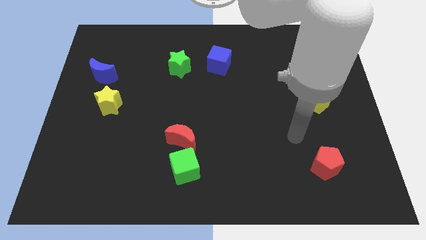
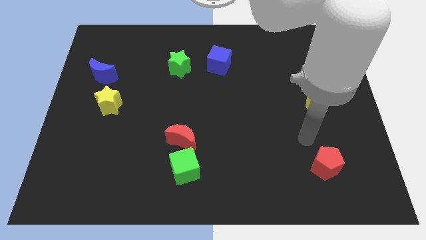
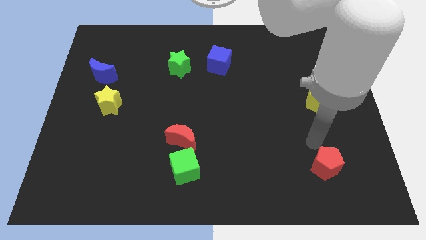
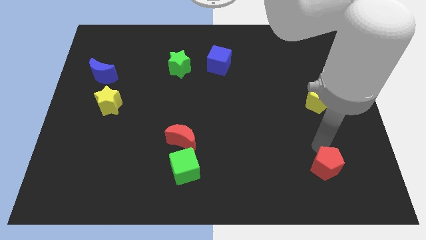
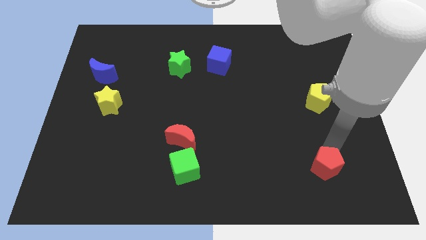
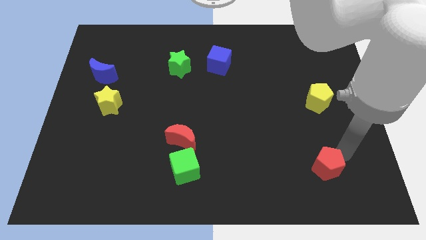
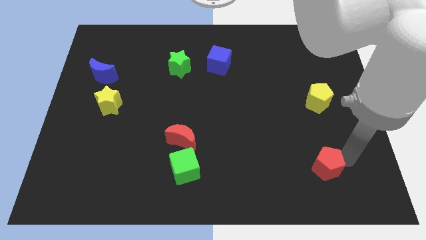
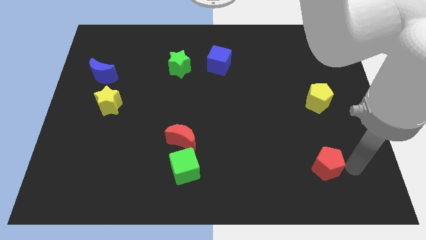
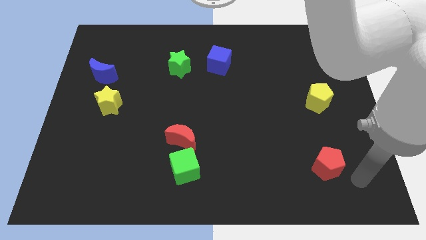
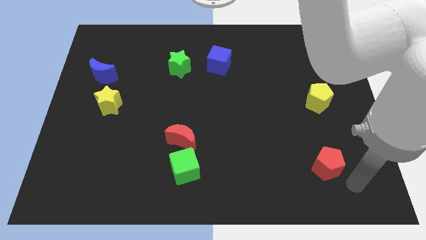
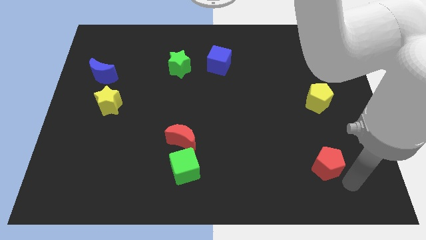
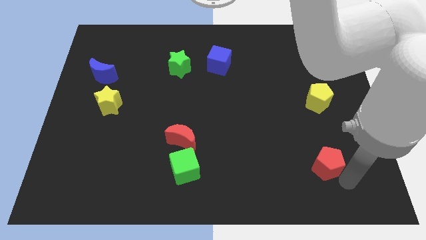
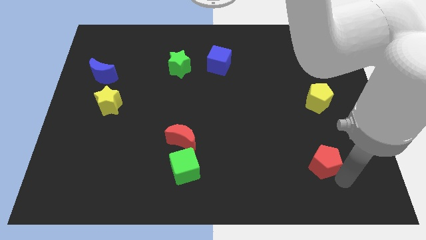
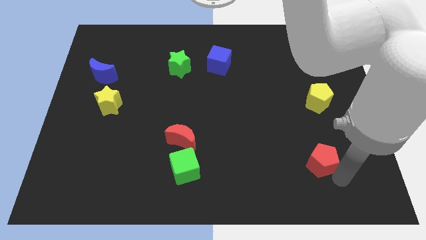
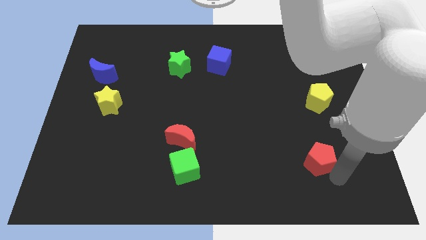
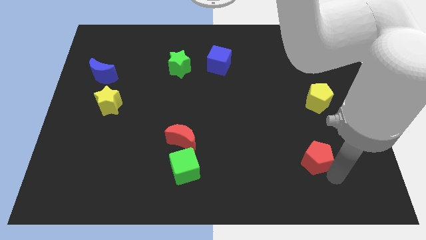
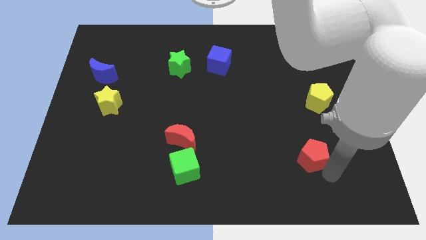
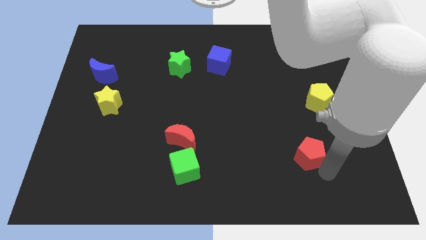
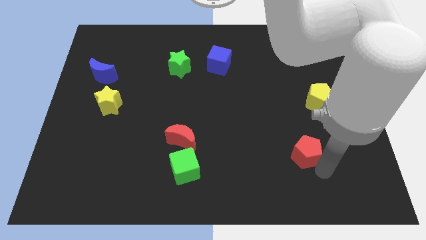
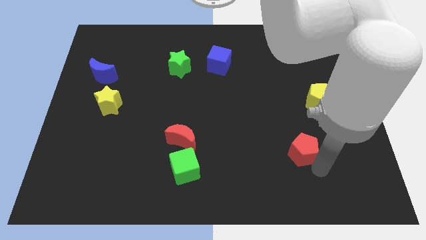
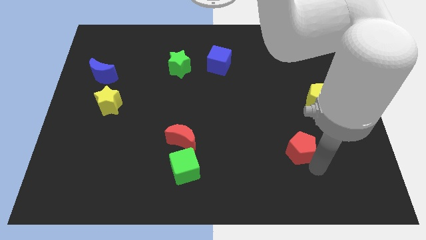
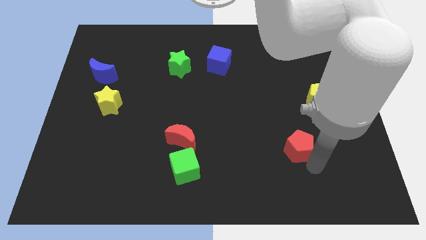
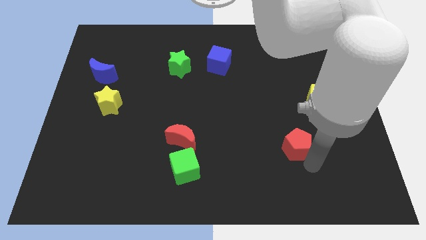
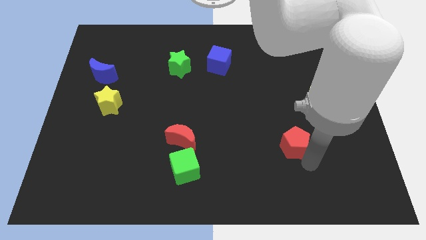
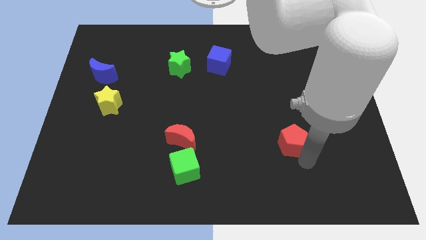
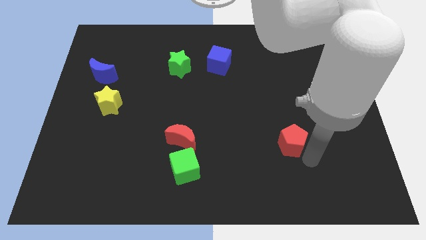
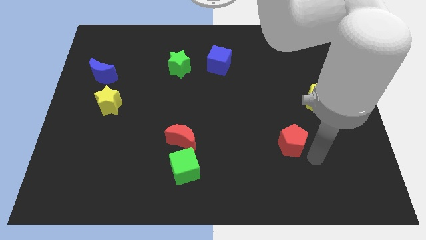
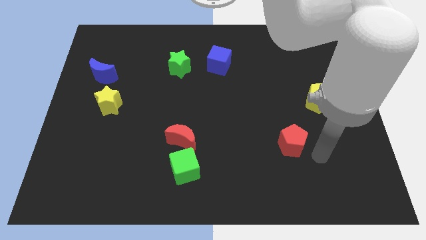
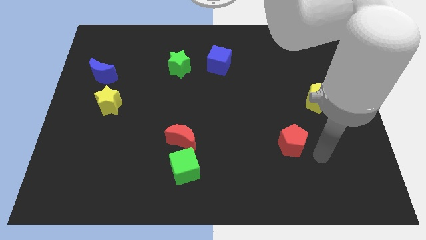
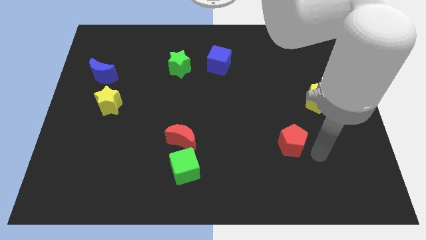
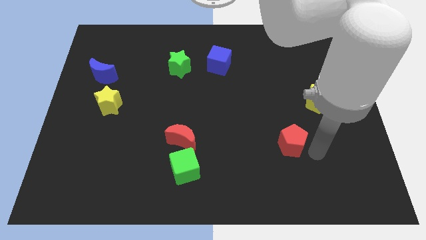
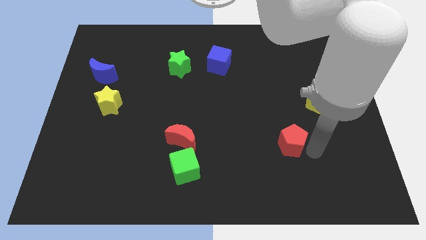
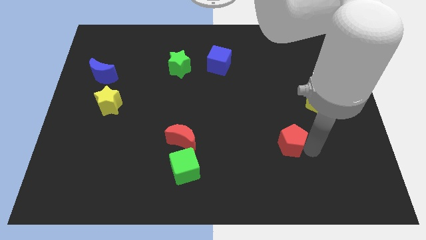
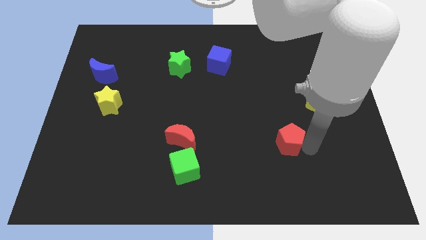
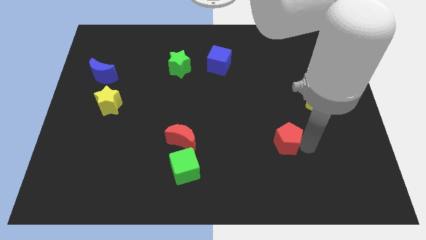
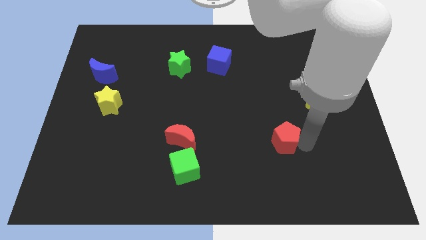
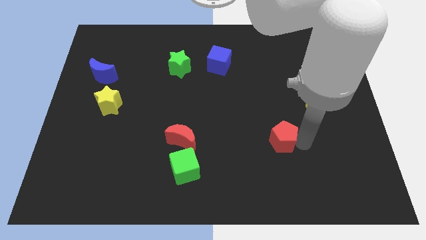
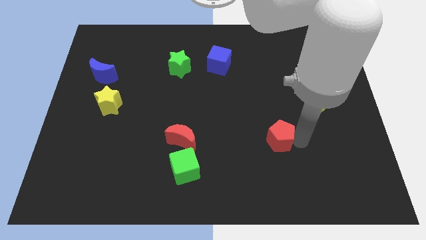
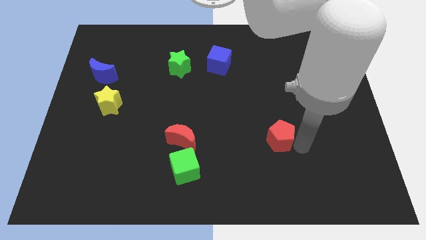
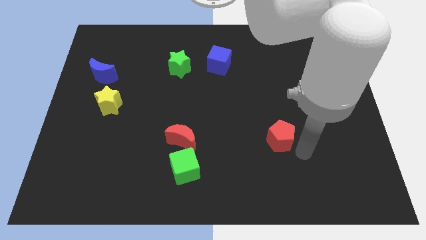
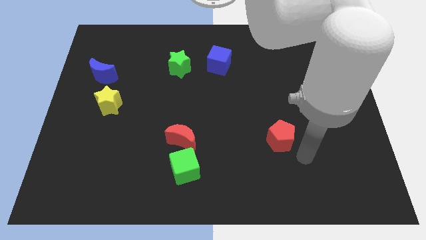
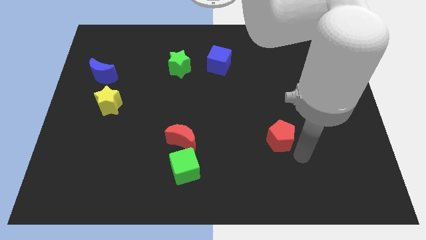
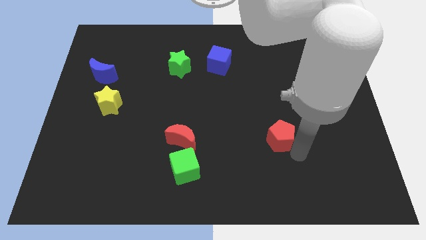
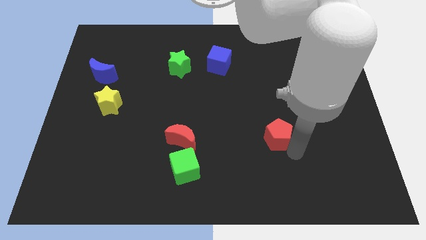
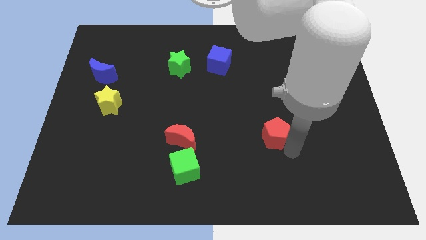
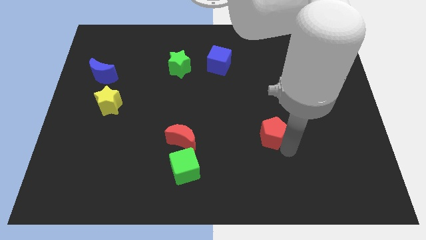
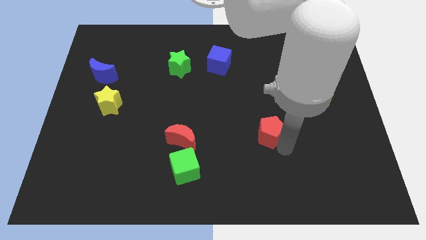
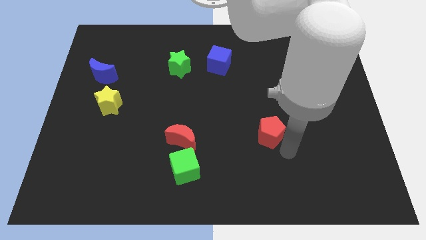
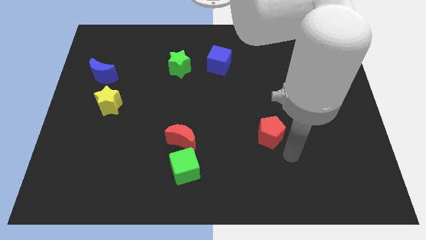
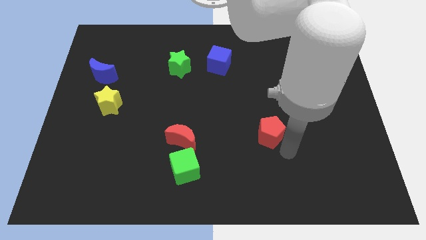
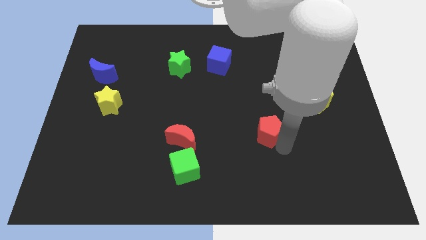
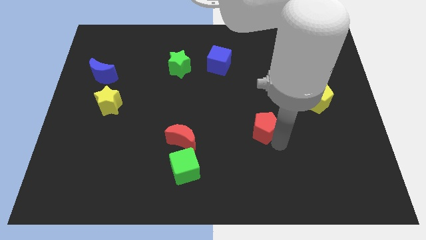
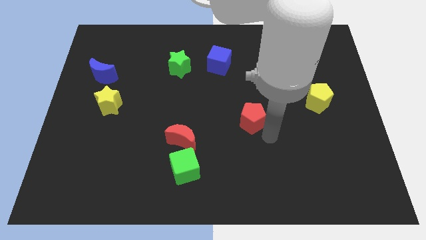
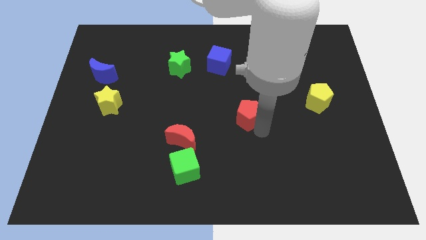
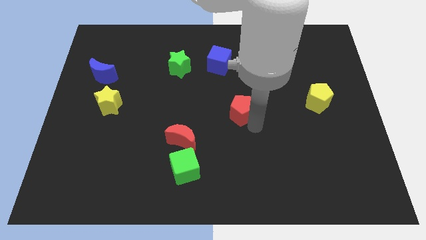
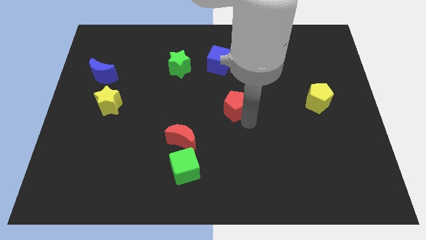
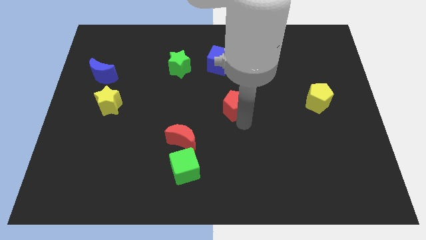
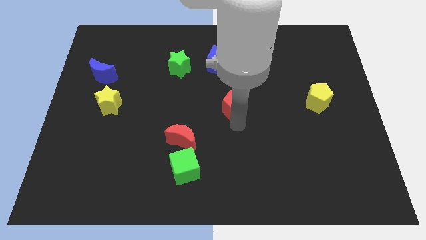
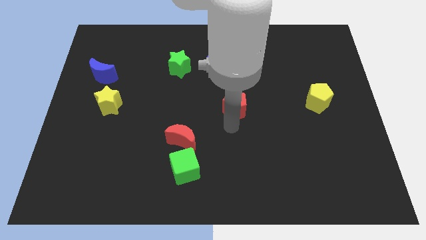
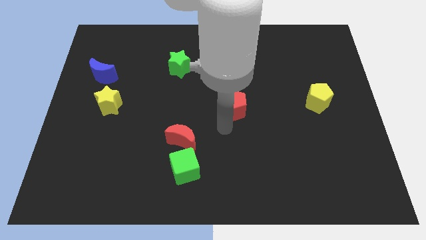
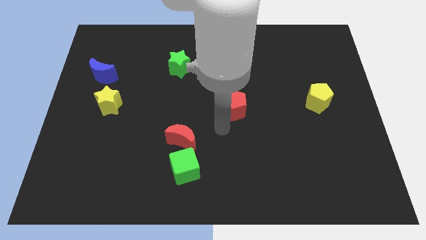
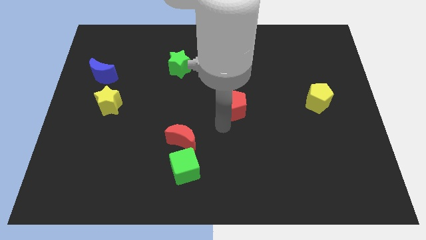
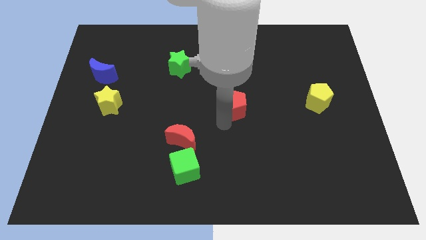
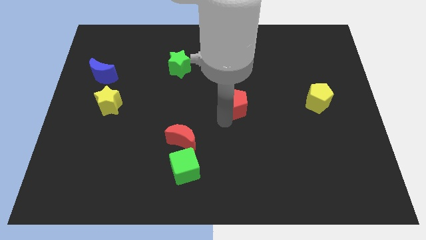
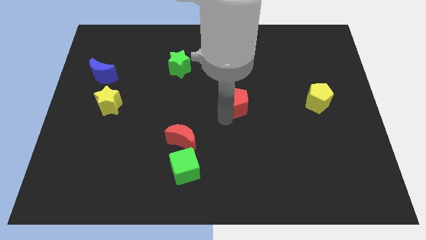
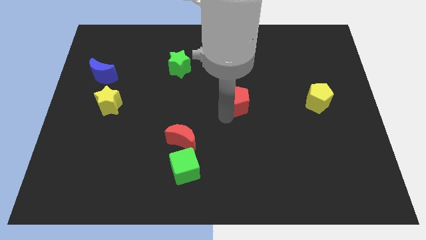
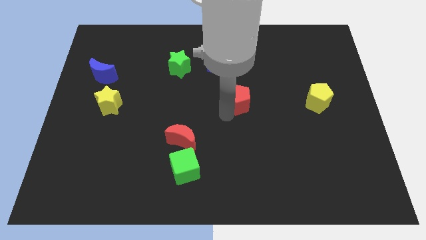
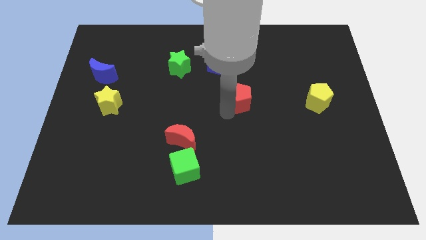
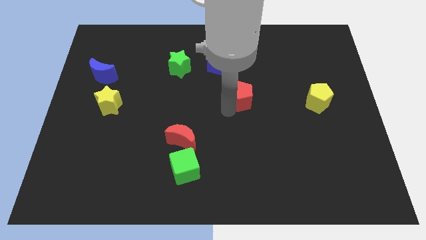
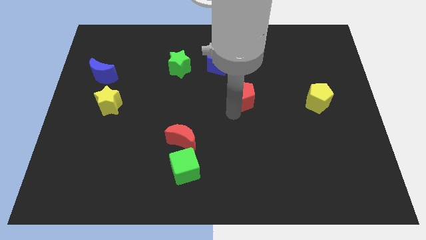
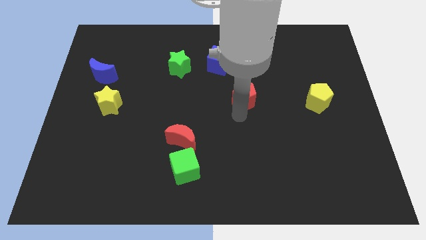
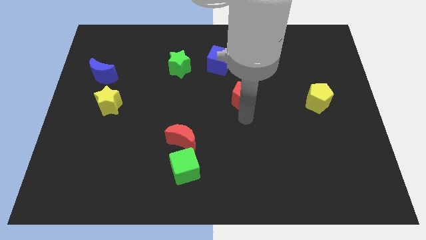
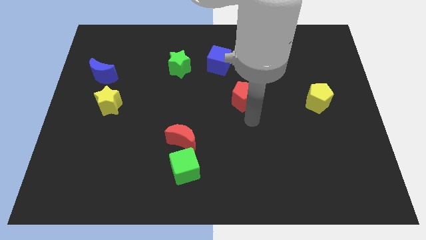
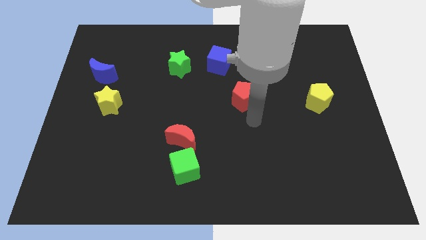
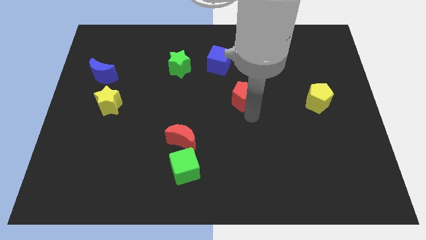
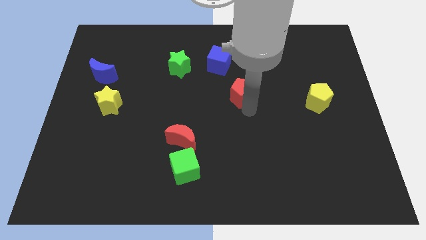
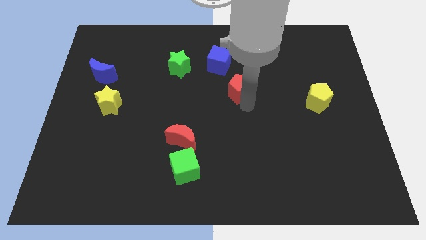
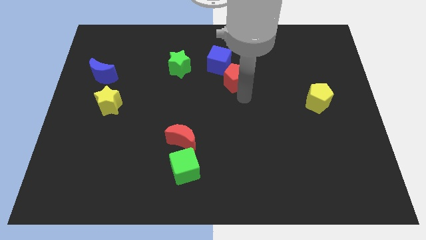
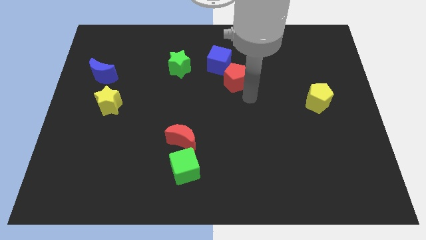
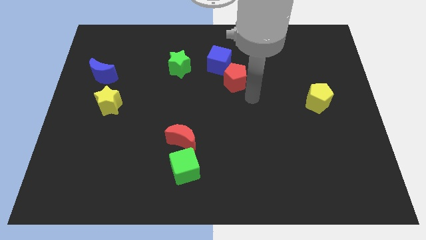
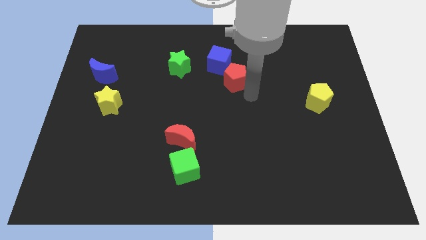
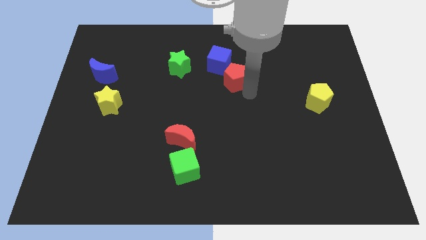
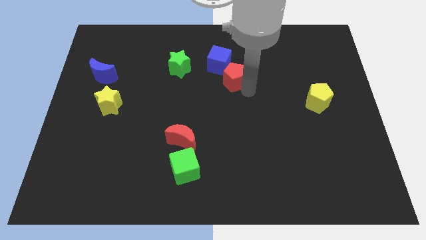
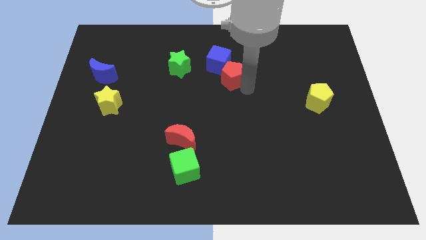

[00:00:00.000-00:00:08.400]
put the red pentagon close to the blue cube
